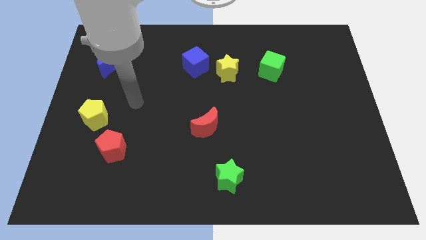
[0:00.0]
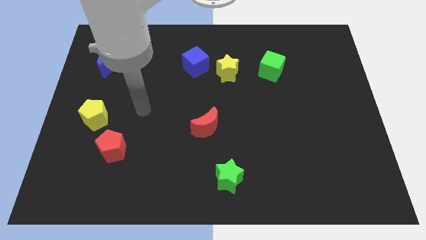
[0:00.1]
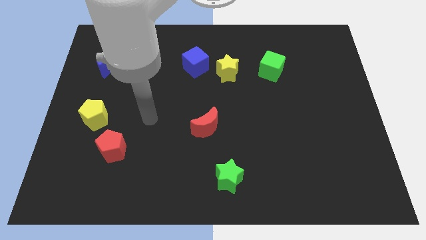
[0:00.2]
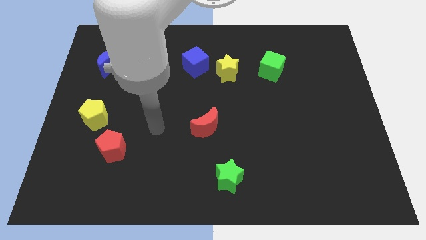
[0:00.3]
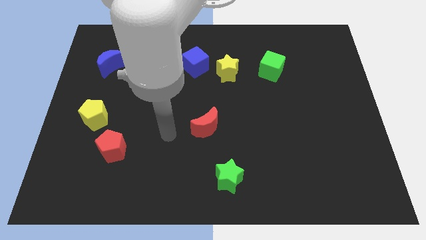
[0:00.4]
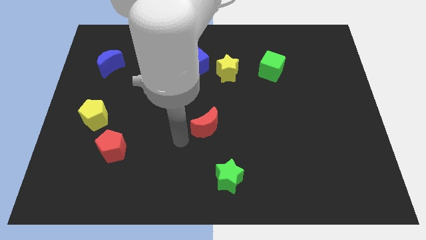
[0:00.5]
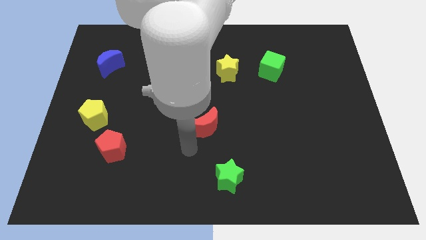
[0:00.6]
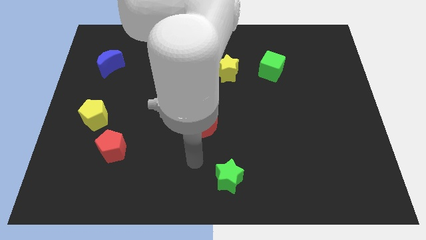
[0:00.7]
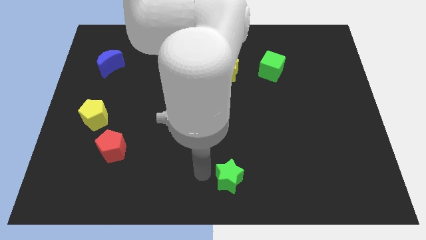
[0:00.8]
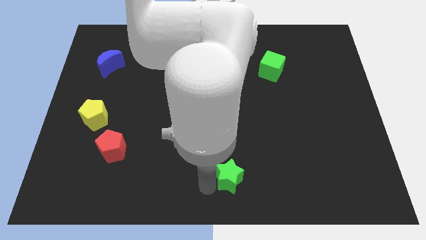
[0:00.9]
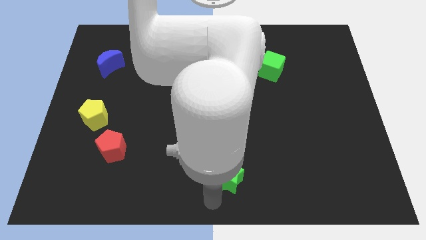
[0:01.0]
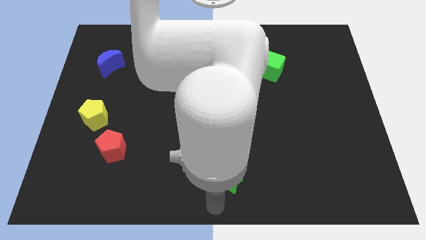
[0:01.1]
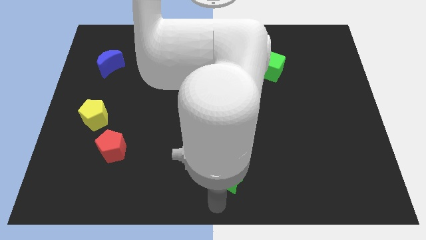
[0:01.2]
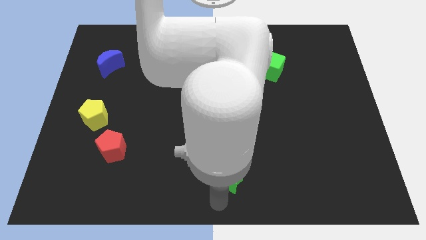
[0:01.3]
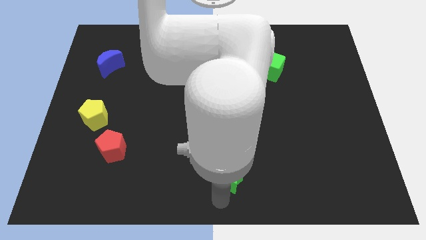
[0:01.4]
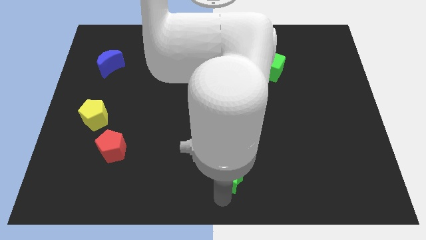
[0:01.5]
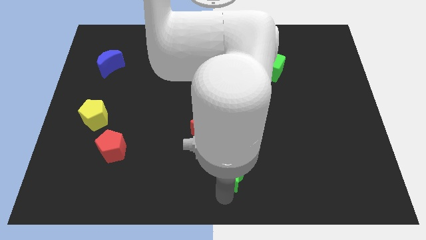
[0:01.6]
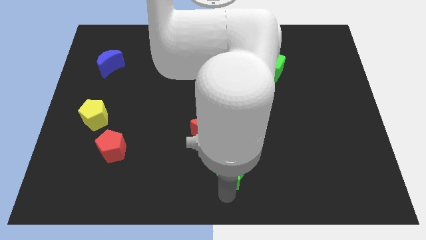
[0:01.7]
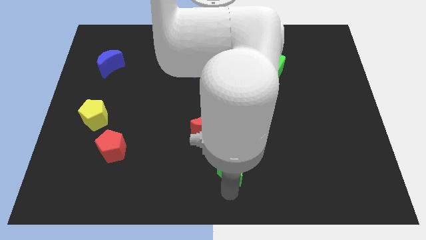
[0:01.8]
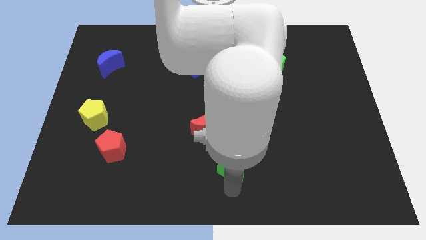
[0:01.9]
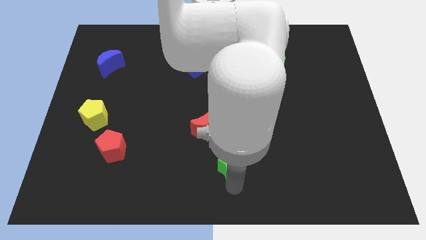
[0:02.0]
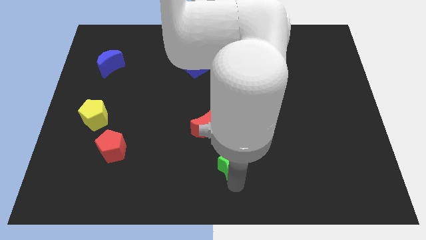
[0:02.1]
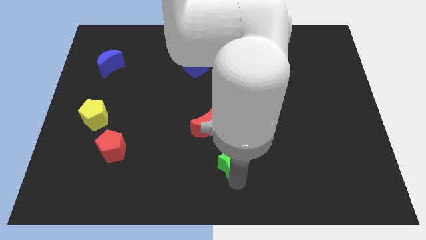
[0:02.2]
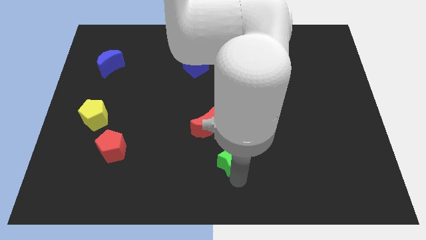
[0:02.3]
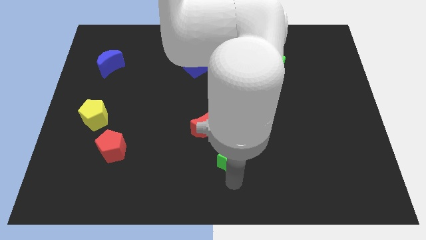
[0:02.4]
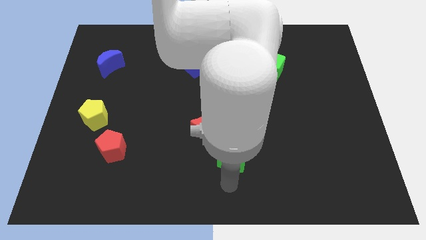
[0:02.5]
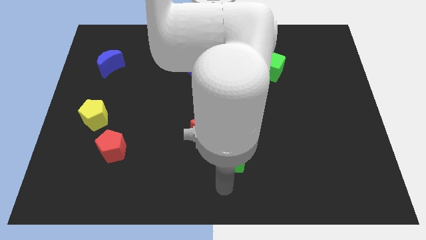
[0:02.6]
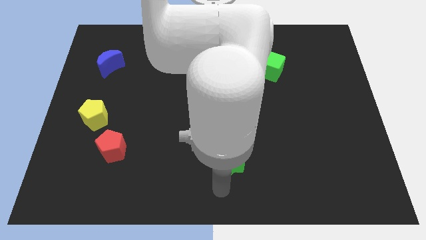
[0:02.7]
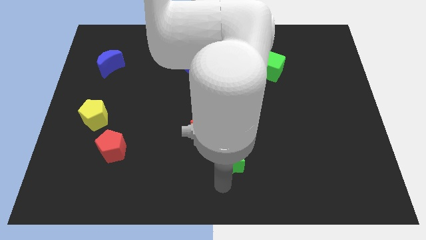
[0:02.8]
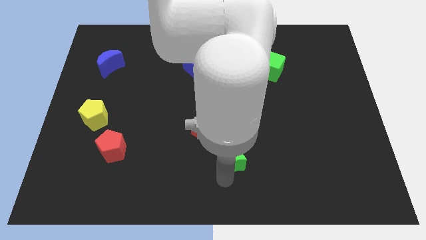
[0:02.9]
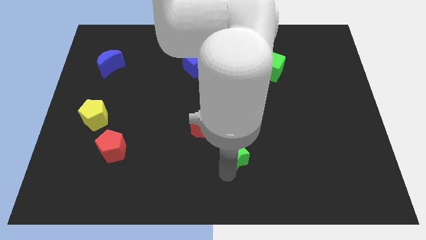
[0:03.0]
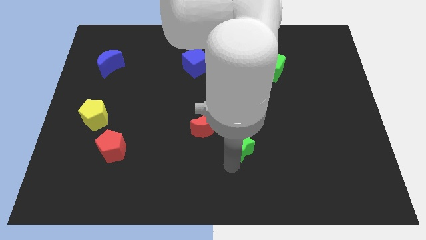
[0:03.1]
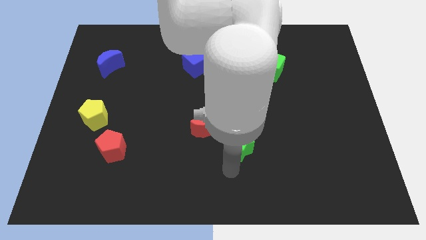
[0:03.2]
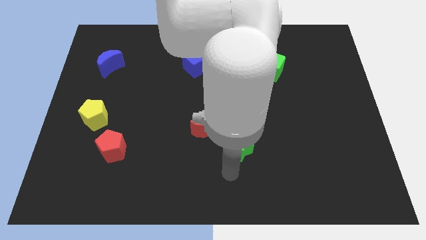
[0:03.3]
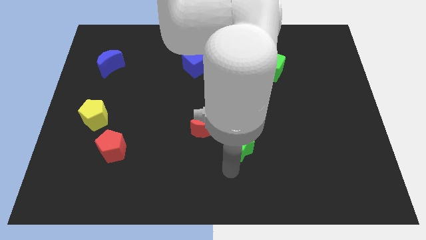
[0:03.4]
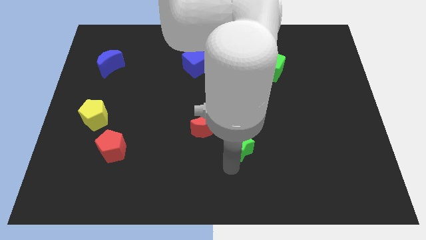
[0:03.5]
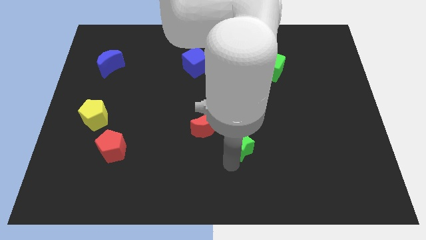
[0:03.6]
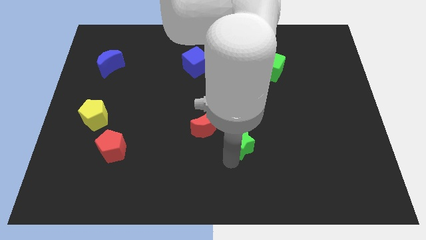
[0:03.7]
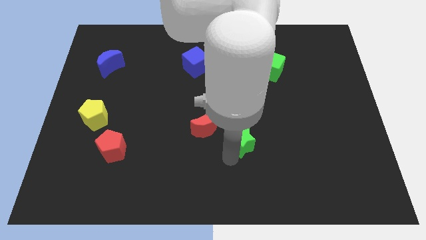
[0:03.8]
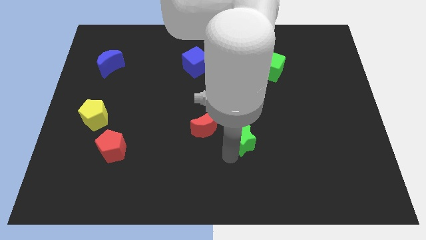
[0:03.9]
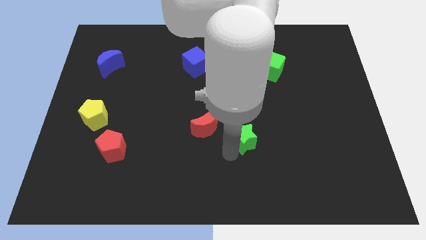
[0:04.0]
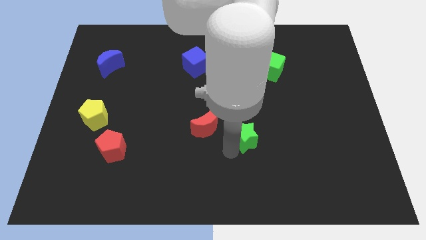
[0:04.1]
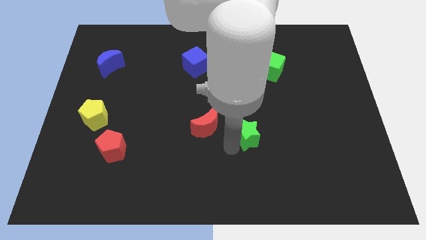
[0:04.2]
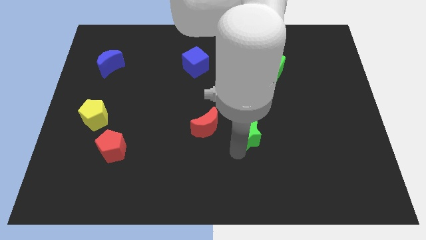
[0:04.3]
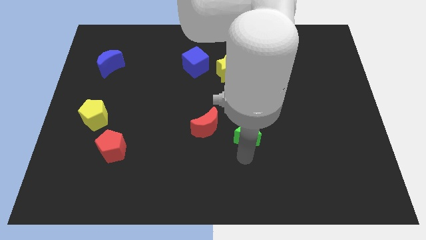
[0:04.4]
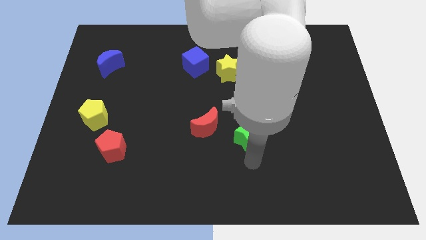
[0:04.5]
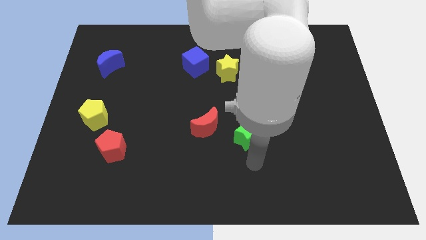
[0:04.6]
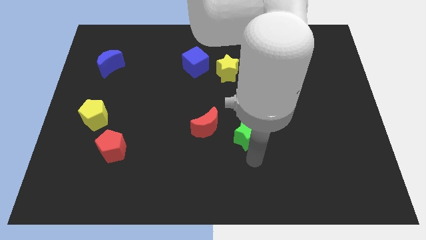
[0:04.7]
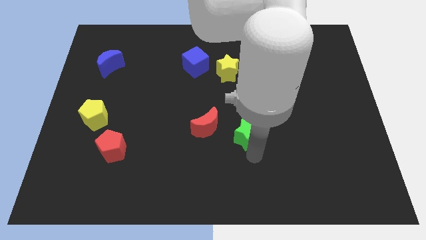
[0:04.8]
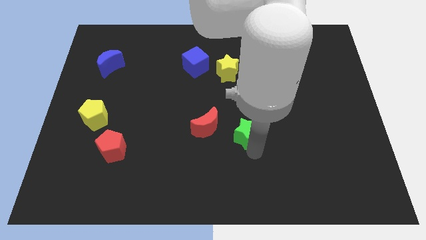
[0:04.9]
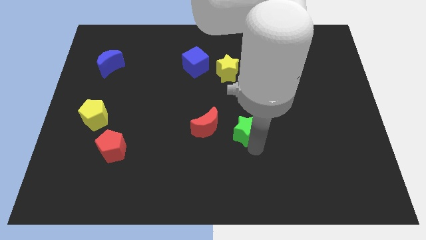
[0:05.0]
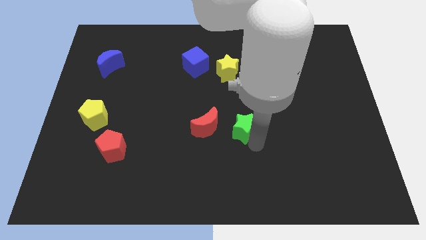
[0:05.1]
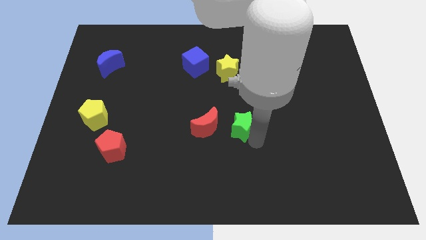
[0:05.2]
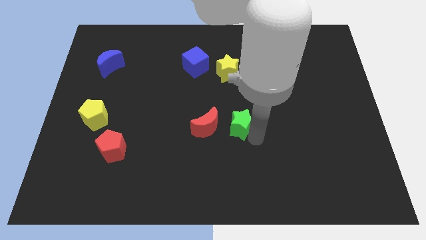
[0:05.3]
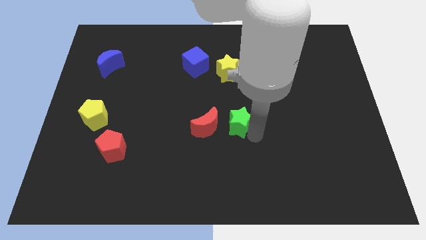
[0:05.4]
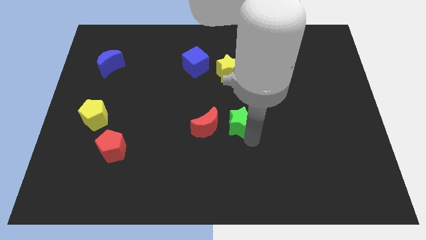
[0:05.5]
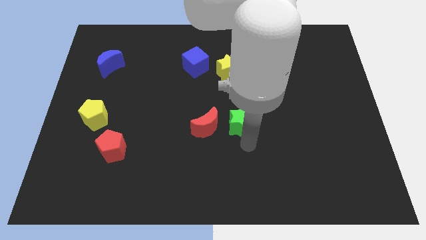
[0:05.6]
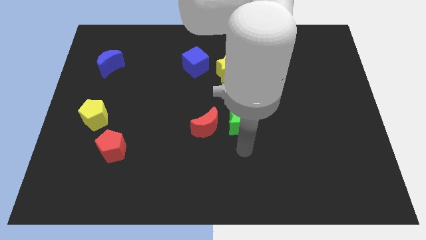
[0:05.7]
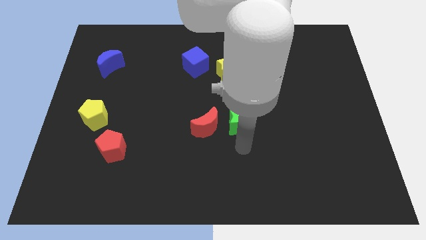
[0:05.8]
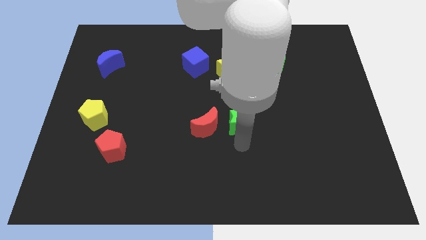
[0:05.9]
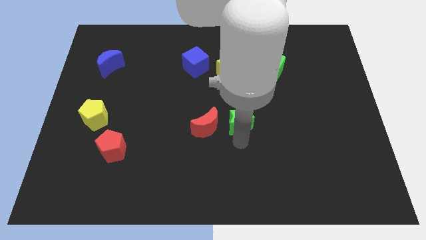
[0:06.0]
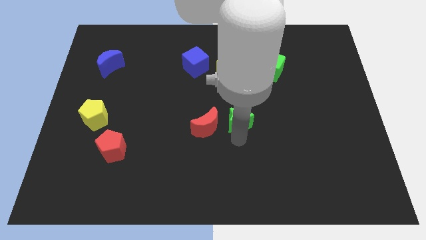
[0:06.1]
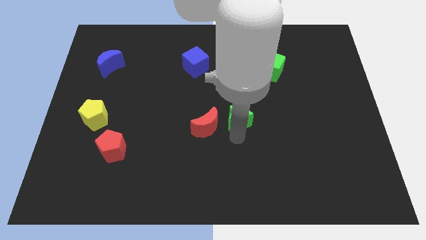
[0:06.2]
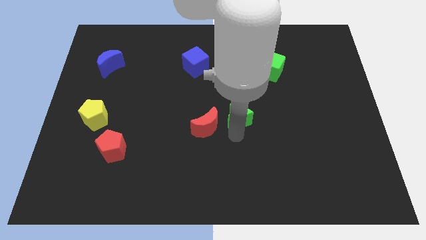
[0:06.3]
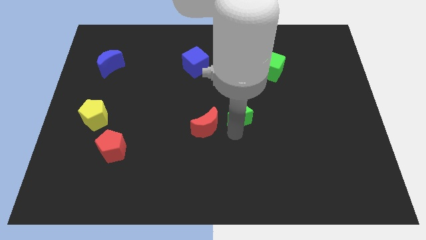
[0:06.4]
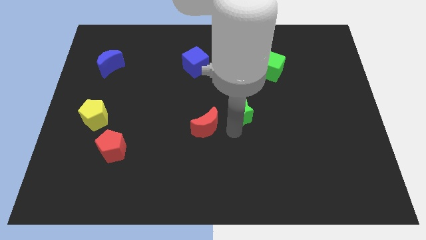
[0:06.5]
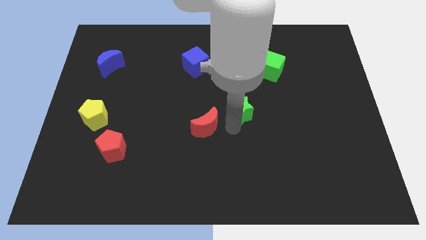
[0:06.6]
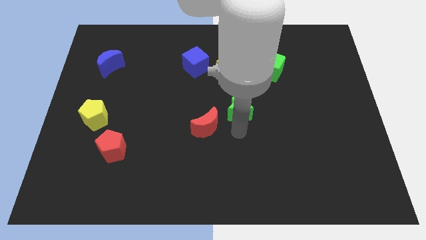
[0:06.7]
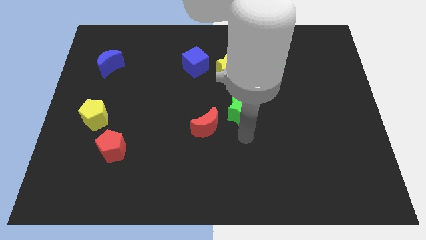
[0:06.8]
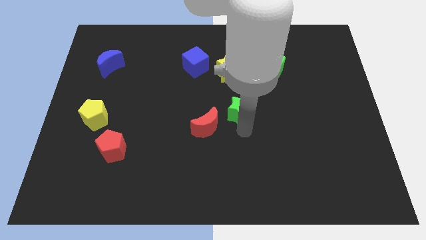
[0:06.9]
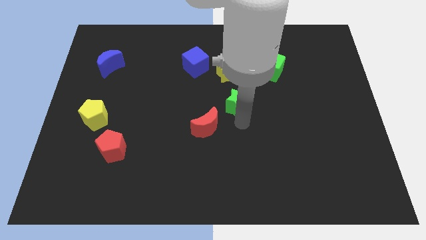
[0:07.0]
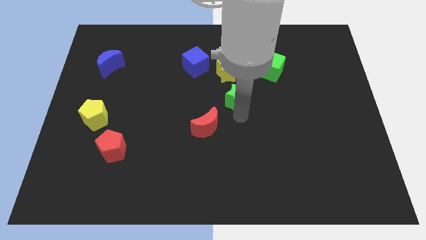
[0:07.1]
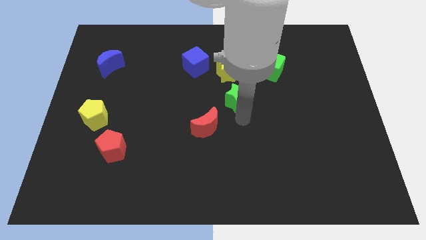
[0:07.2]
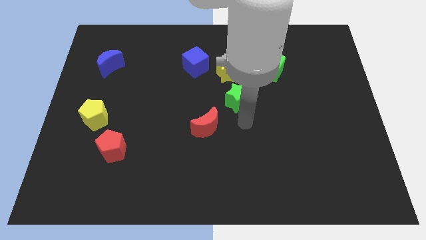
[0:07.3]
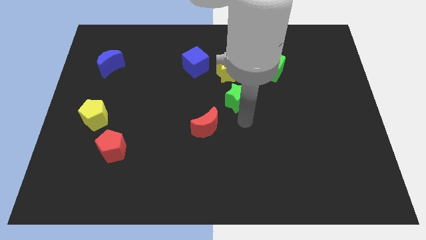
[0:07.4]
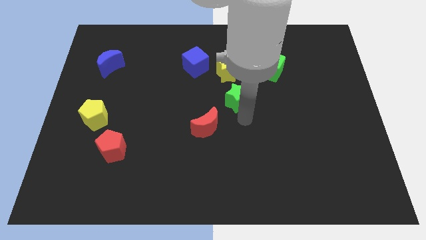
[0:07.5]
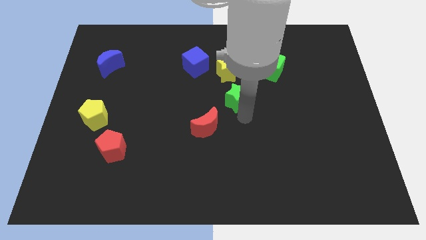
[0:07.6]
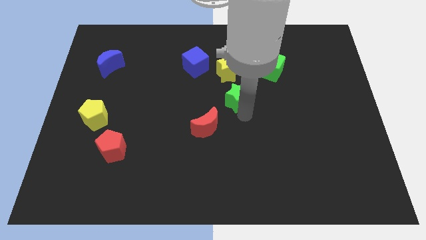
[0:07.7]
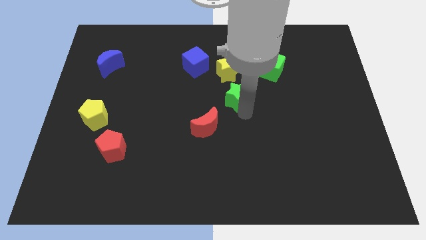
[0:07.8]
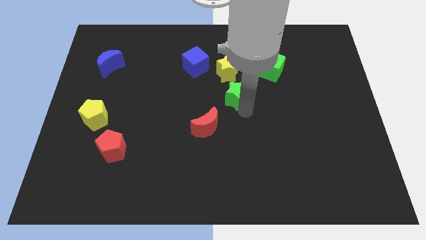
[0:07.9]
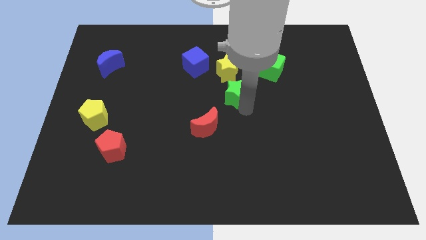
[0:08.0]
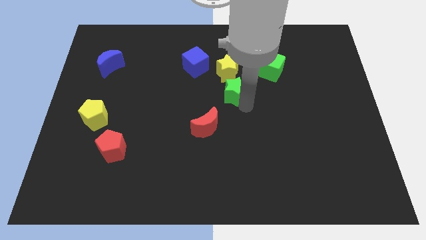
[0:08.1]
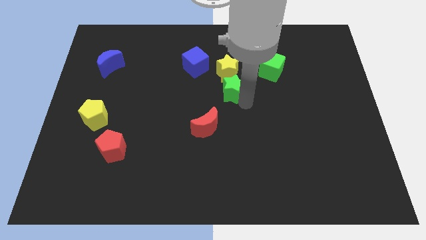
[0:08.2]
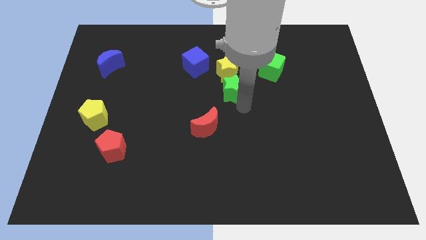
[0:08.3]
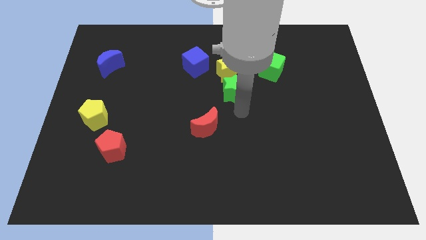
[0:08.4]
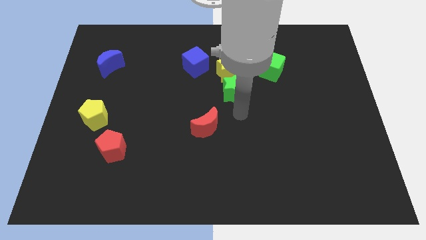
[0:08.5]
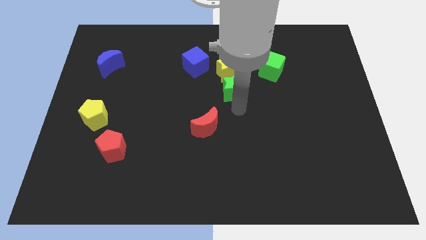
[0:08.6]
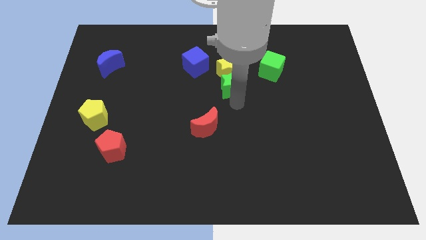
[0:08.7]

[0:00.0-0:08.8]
move the green star close to the yellow star
